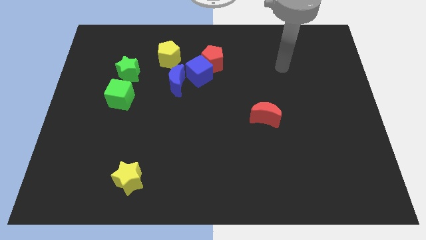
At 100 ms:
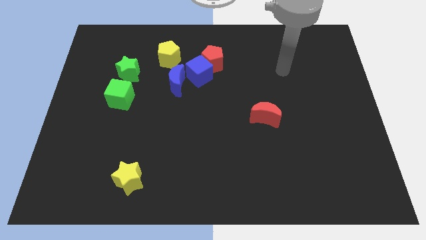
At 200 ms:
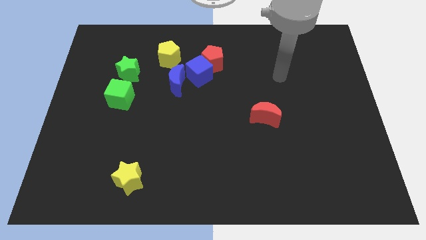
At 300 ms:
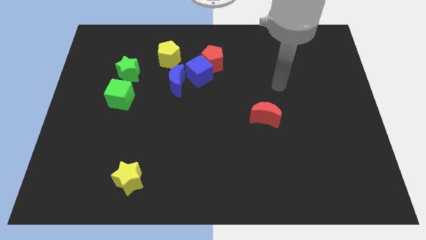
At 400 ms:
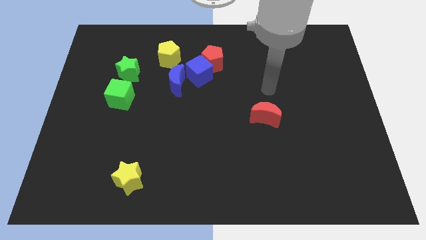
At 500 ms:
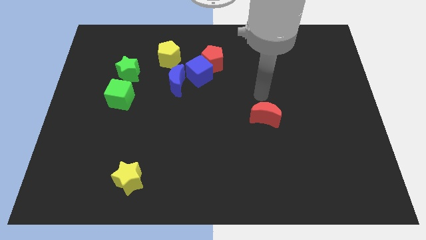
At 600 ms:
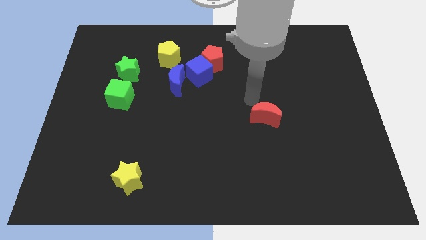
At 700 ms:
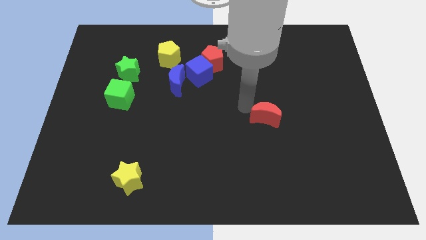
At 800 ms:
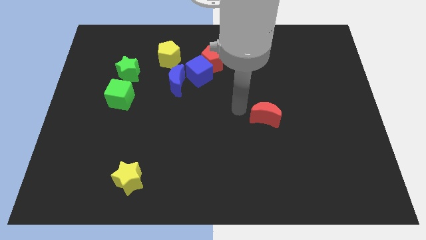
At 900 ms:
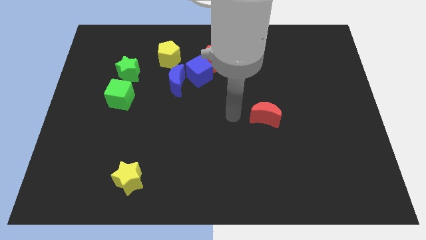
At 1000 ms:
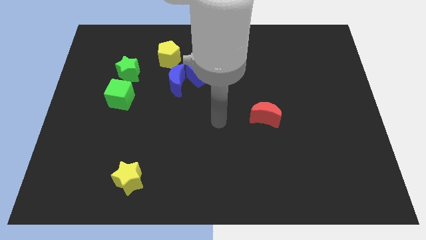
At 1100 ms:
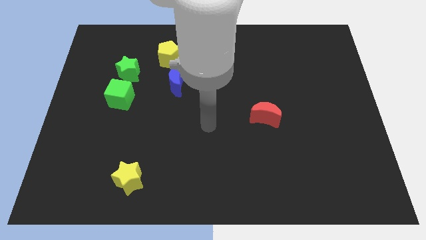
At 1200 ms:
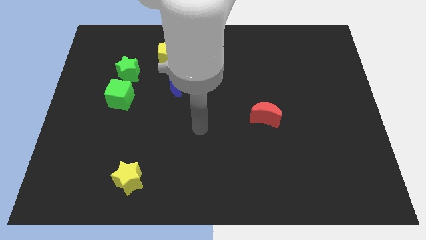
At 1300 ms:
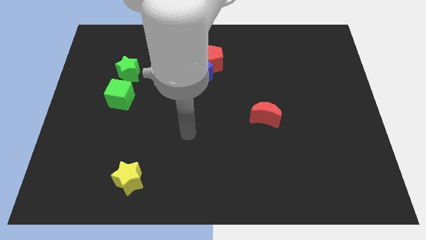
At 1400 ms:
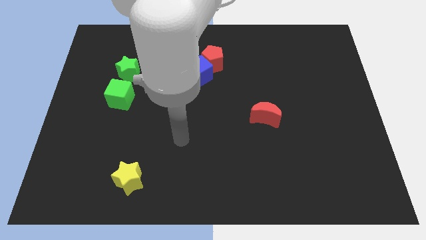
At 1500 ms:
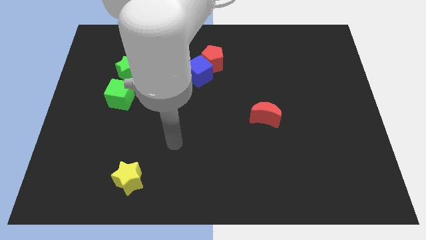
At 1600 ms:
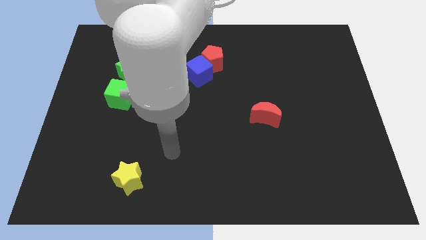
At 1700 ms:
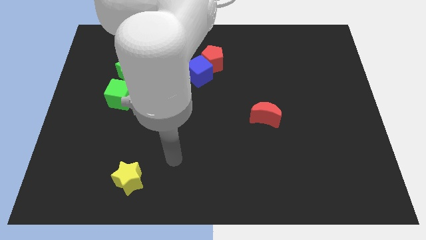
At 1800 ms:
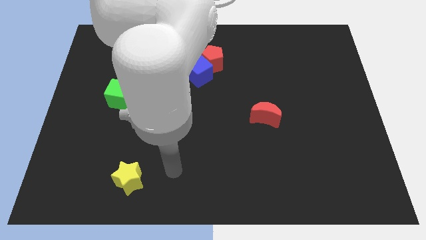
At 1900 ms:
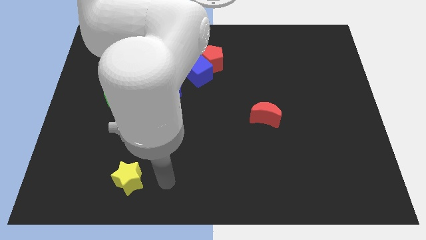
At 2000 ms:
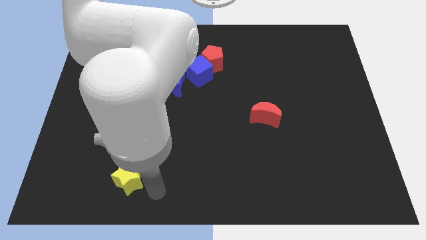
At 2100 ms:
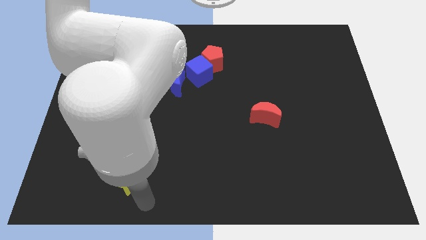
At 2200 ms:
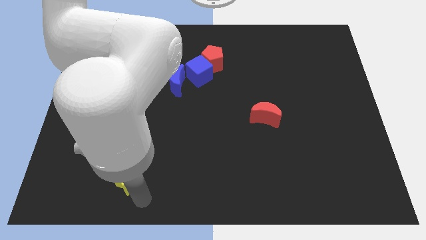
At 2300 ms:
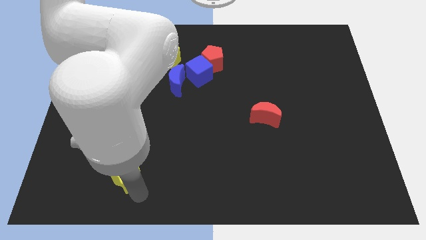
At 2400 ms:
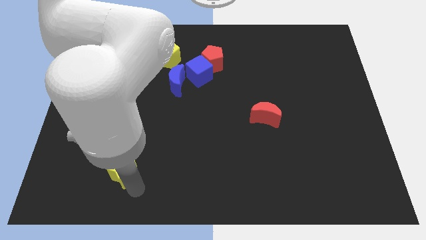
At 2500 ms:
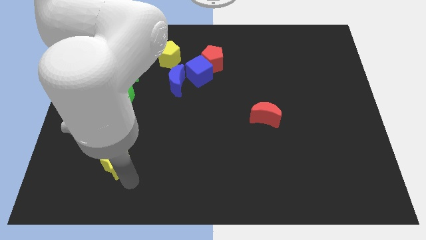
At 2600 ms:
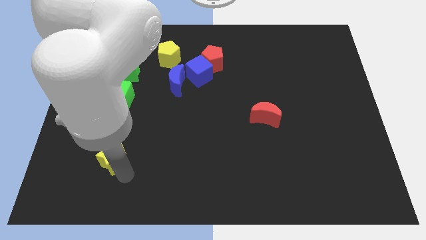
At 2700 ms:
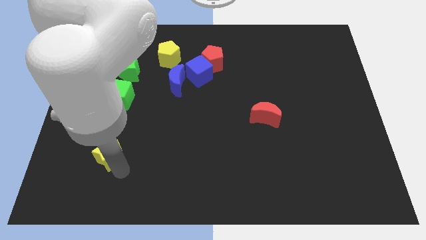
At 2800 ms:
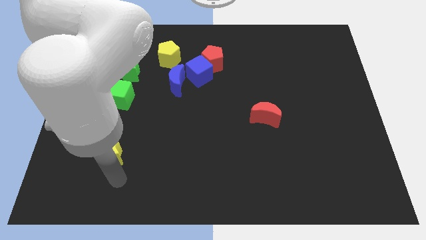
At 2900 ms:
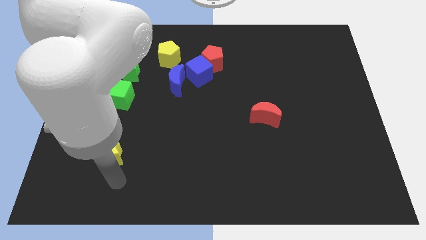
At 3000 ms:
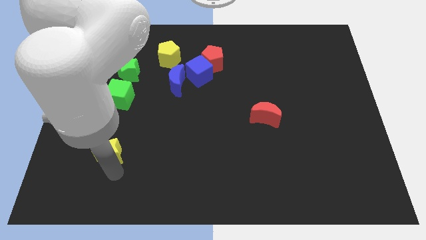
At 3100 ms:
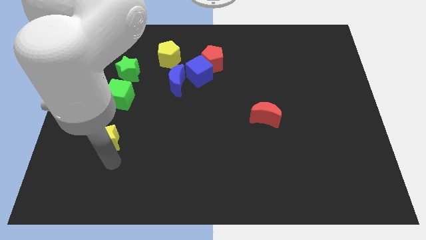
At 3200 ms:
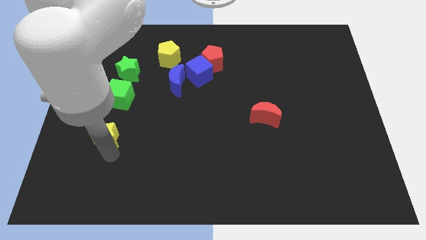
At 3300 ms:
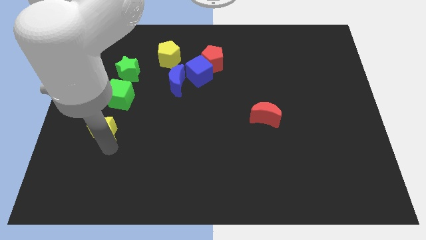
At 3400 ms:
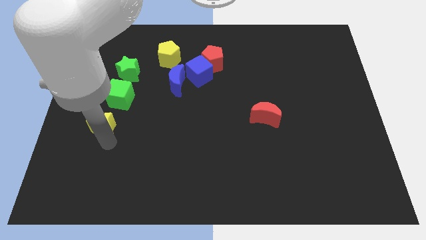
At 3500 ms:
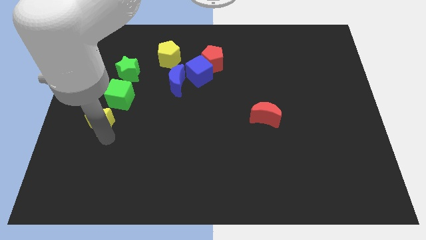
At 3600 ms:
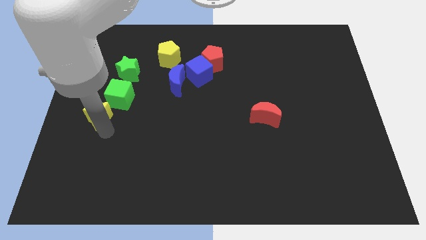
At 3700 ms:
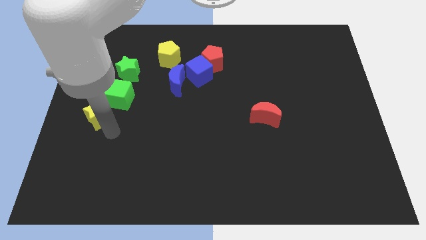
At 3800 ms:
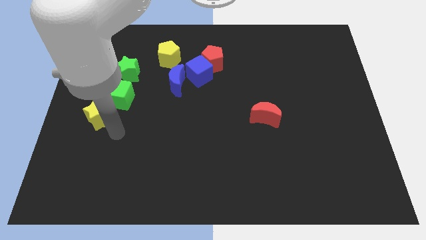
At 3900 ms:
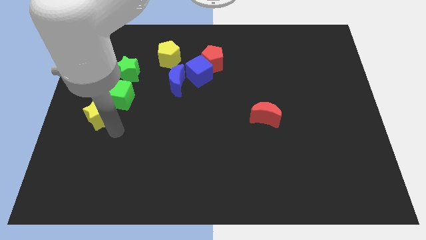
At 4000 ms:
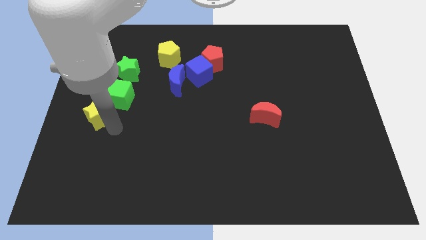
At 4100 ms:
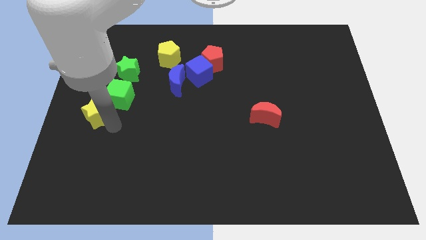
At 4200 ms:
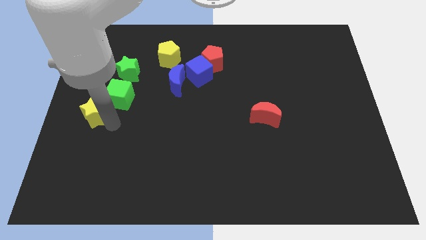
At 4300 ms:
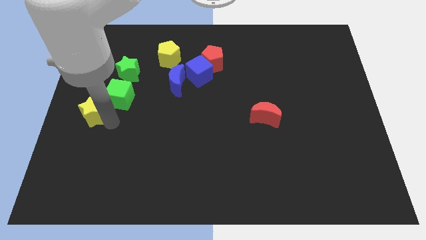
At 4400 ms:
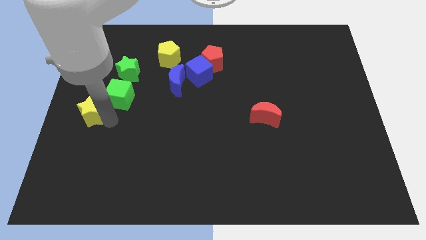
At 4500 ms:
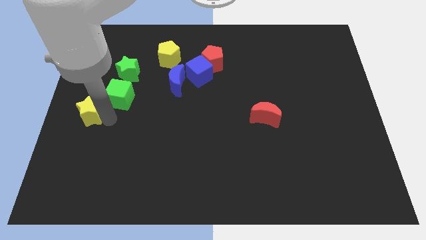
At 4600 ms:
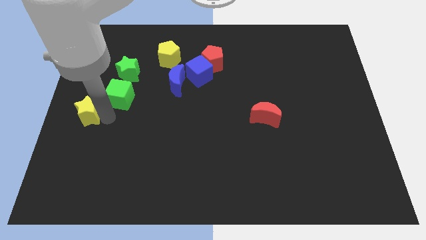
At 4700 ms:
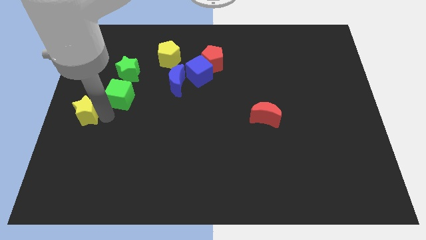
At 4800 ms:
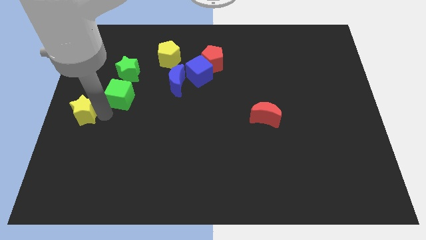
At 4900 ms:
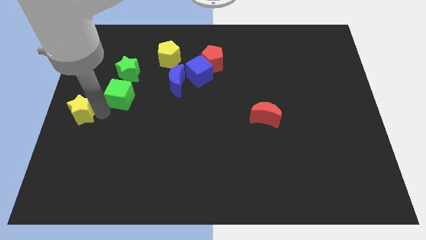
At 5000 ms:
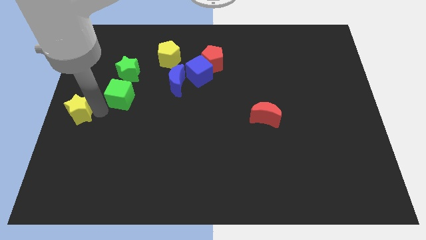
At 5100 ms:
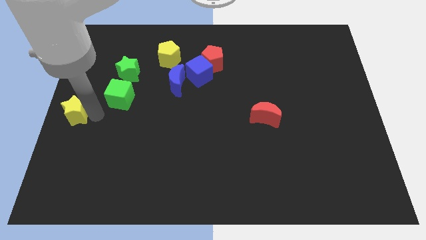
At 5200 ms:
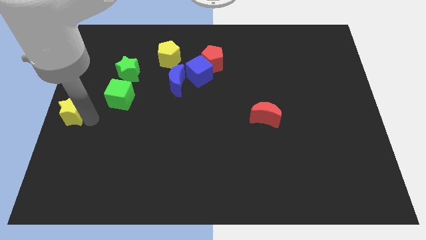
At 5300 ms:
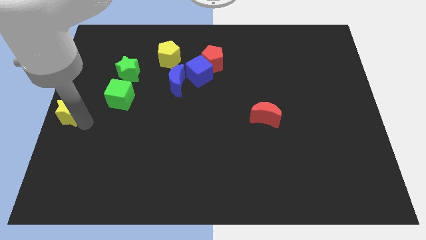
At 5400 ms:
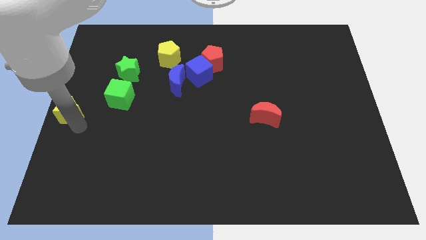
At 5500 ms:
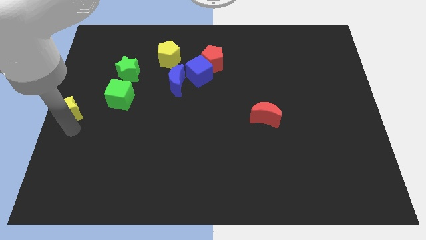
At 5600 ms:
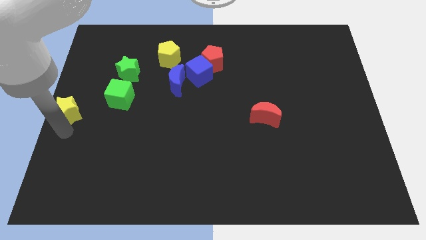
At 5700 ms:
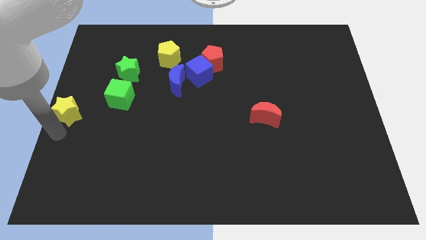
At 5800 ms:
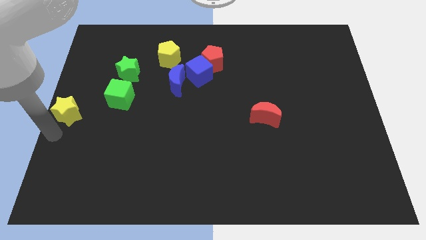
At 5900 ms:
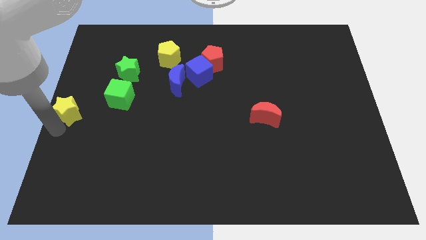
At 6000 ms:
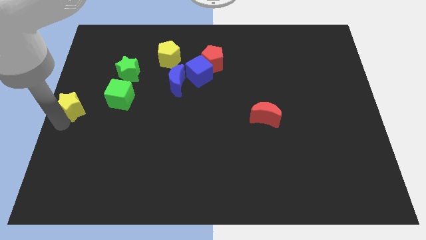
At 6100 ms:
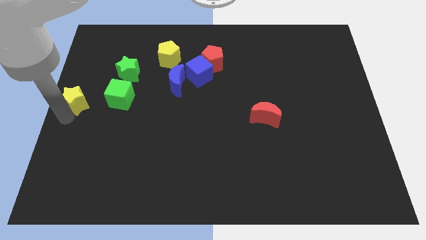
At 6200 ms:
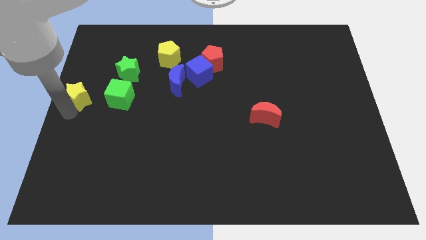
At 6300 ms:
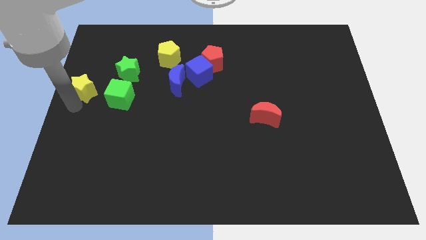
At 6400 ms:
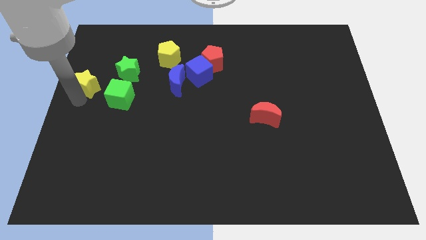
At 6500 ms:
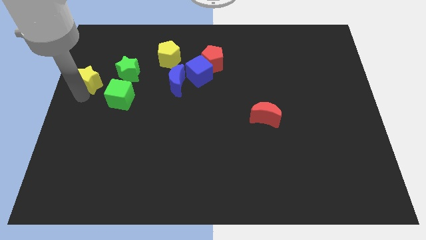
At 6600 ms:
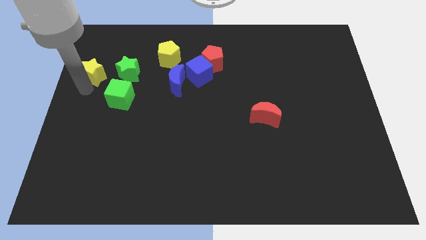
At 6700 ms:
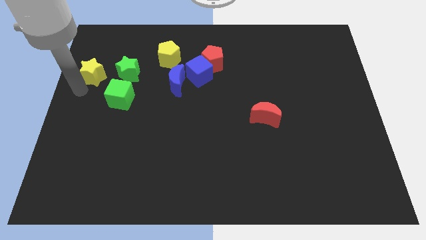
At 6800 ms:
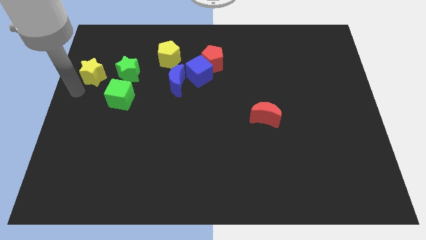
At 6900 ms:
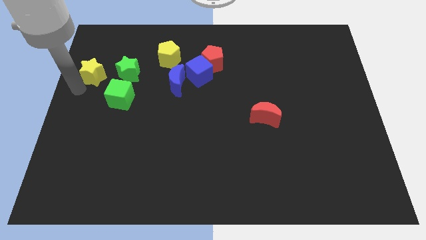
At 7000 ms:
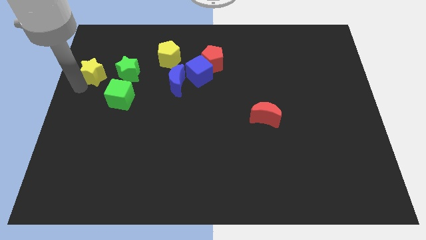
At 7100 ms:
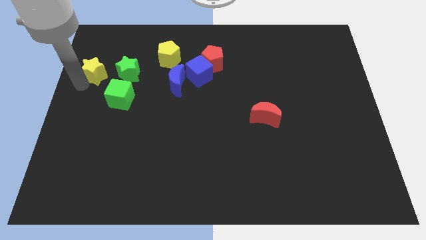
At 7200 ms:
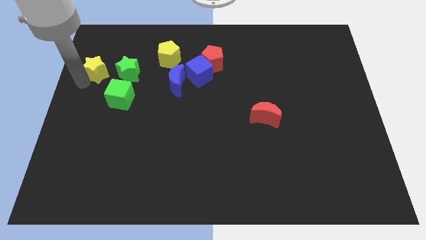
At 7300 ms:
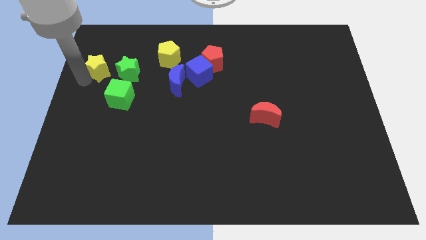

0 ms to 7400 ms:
put the yellow star diagonally up and to the left of the green star
